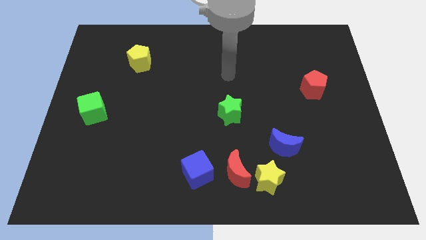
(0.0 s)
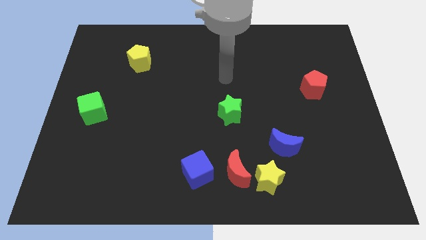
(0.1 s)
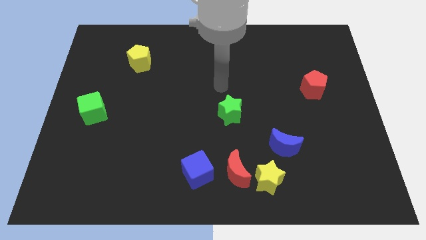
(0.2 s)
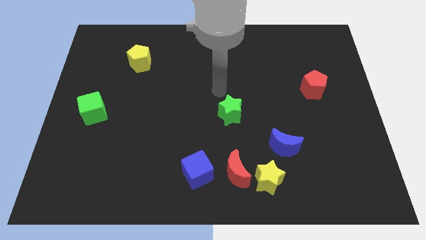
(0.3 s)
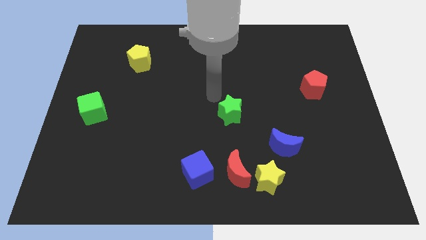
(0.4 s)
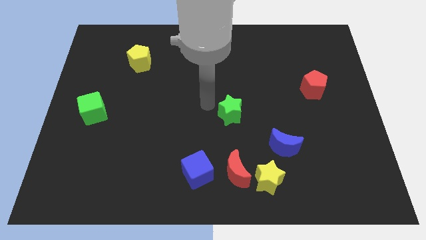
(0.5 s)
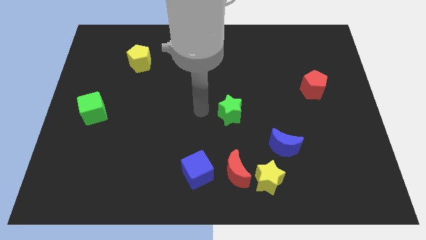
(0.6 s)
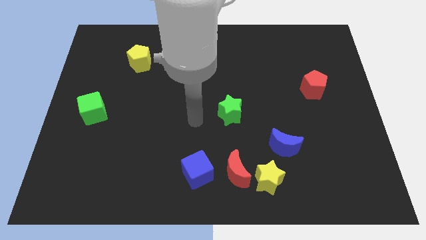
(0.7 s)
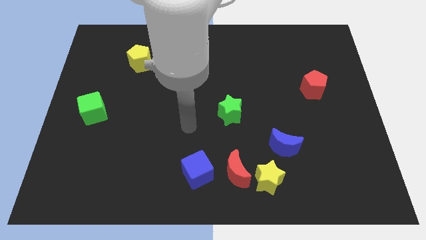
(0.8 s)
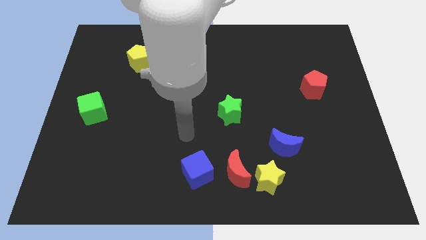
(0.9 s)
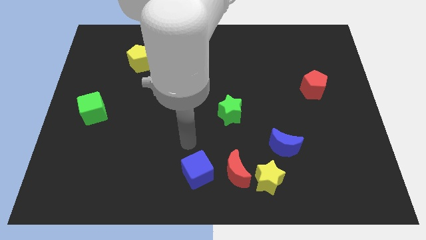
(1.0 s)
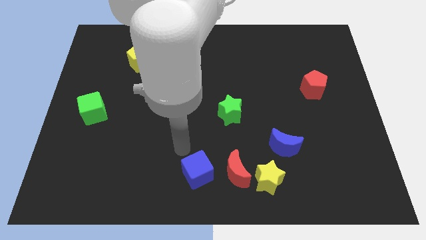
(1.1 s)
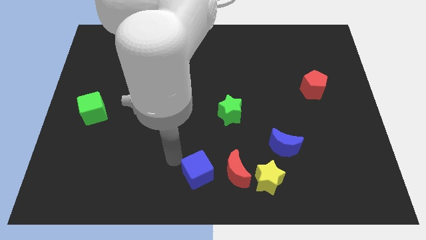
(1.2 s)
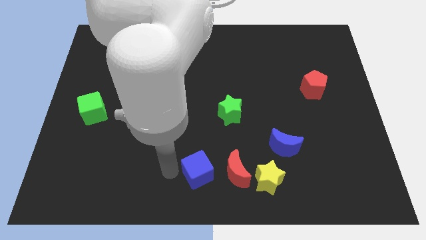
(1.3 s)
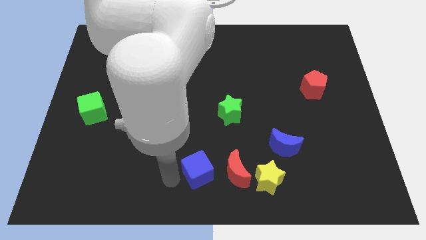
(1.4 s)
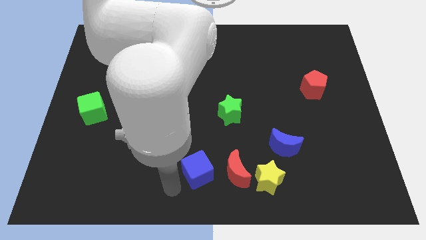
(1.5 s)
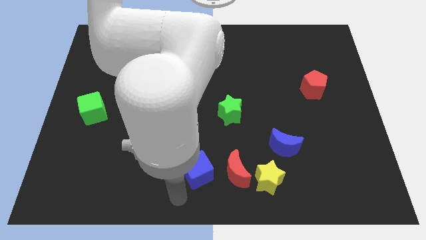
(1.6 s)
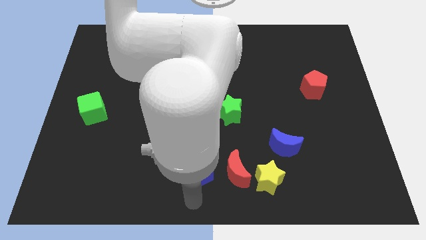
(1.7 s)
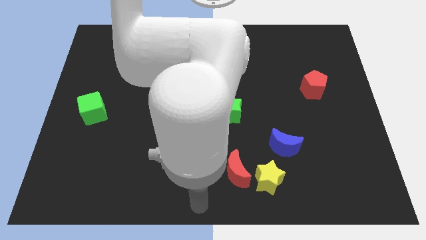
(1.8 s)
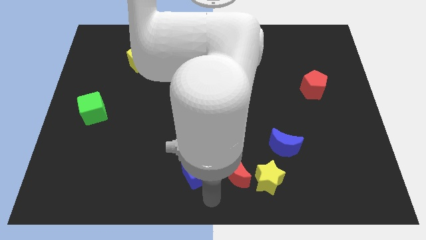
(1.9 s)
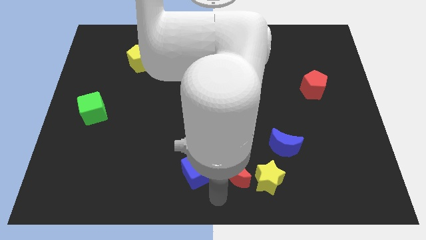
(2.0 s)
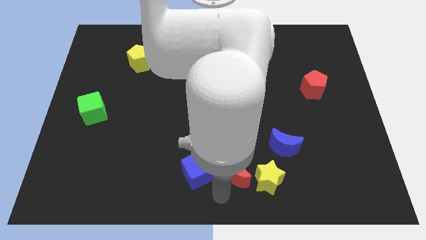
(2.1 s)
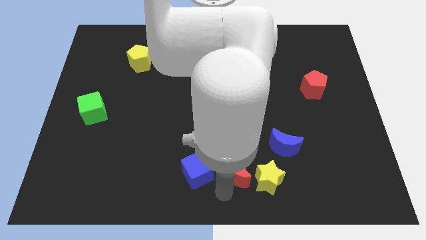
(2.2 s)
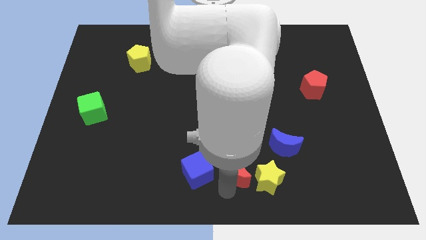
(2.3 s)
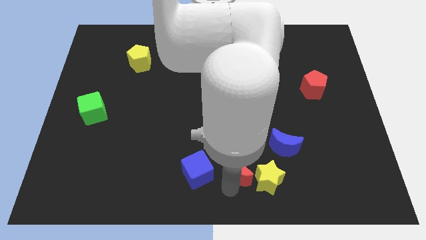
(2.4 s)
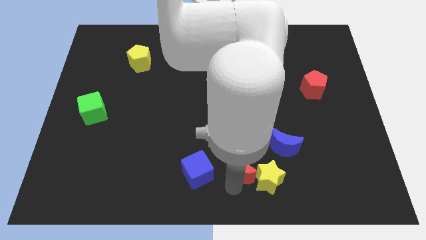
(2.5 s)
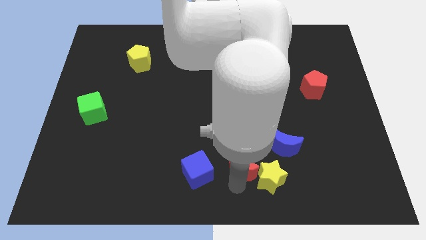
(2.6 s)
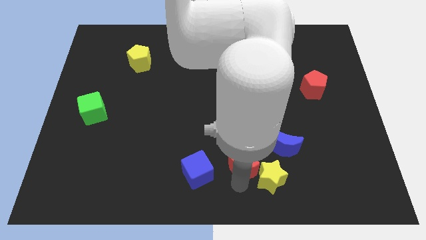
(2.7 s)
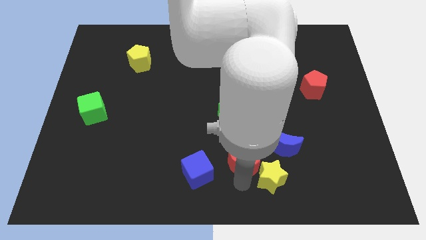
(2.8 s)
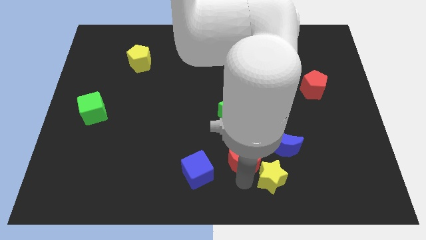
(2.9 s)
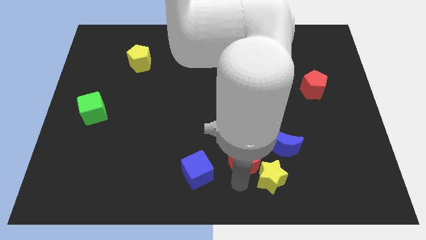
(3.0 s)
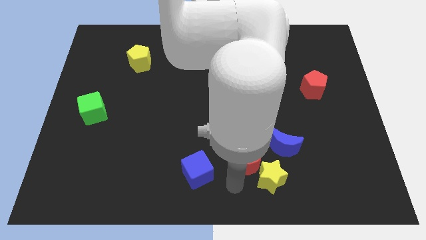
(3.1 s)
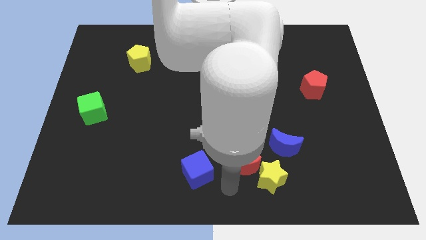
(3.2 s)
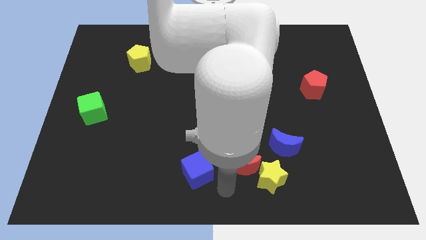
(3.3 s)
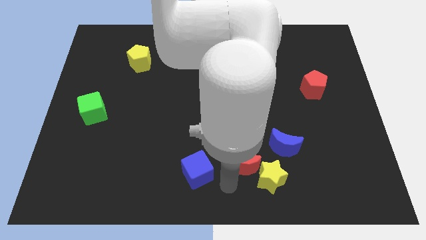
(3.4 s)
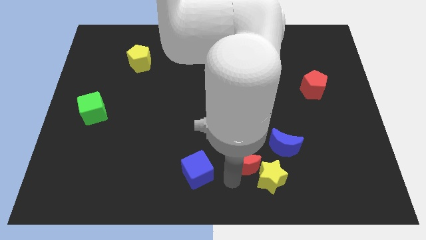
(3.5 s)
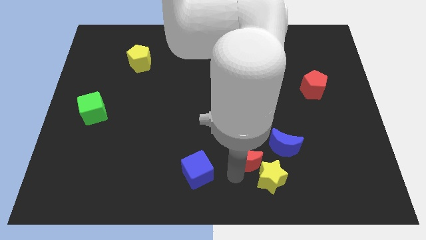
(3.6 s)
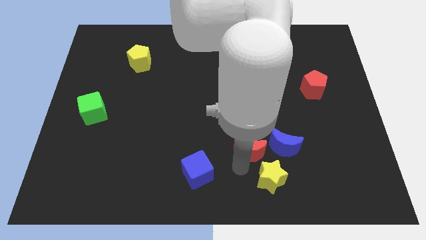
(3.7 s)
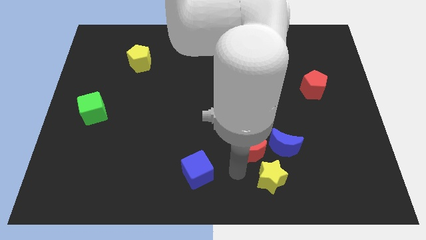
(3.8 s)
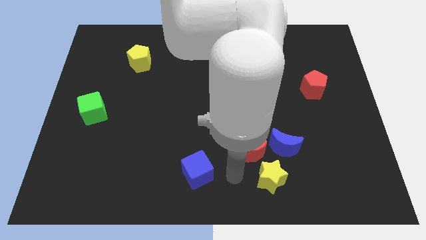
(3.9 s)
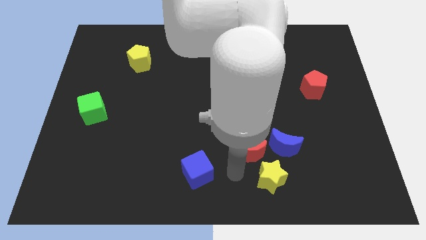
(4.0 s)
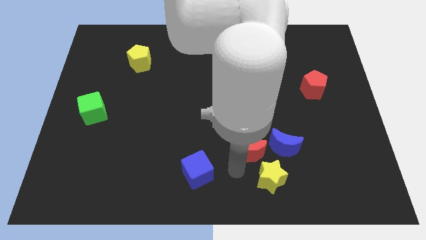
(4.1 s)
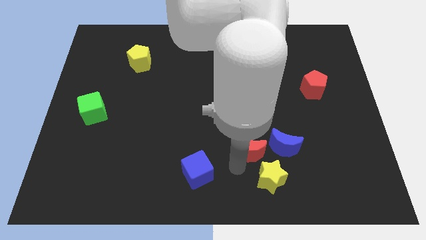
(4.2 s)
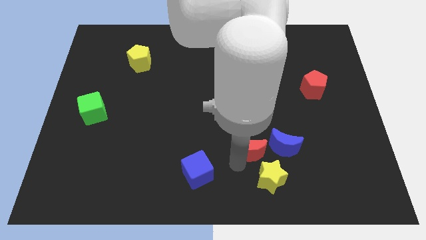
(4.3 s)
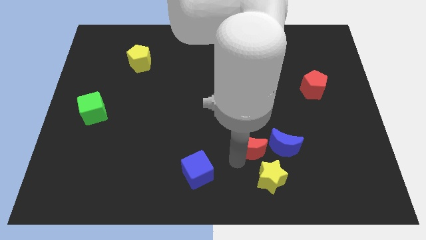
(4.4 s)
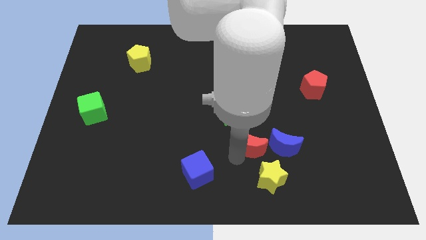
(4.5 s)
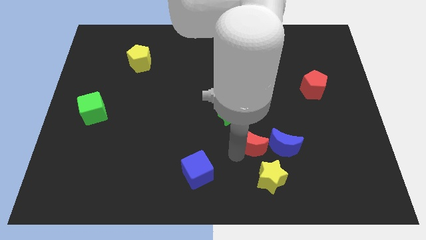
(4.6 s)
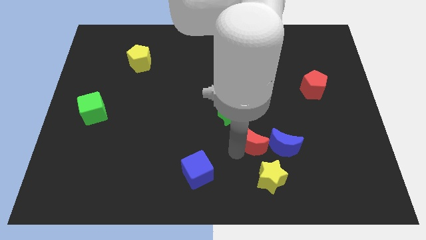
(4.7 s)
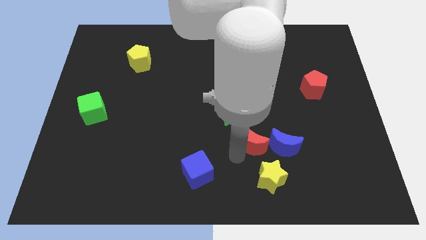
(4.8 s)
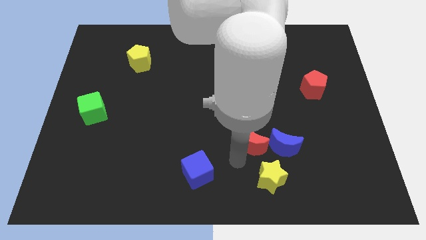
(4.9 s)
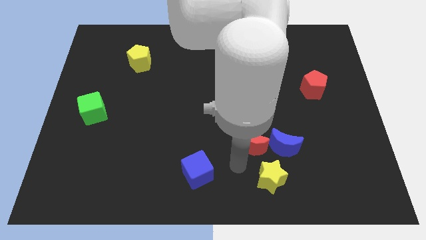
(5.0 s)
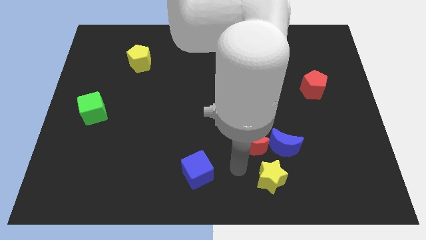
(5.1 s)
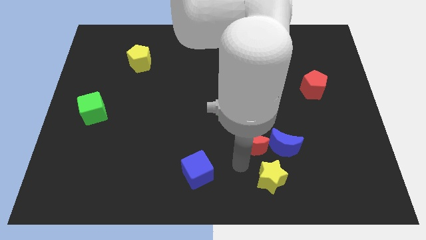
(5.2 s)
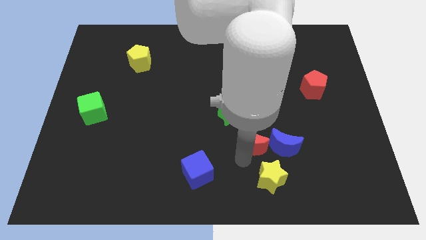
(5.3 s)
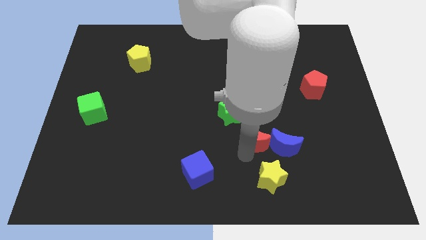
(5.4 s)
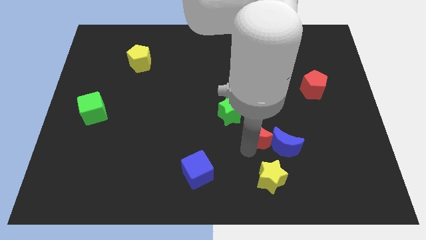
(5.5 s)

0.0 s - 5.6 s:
pull the red moon apart from the yellow star and blue cube

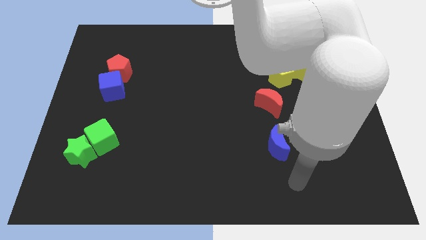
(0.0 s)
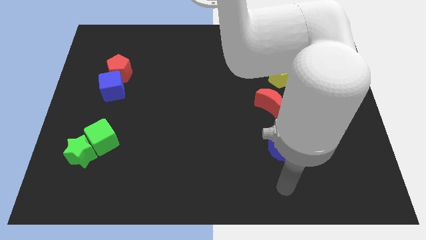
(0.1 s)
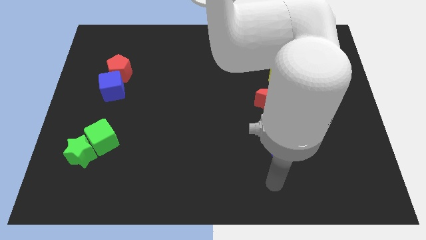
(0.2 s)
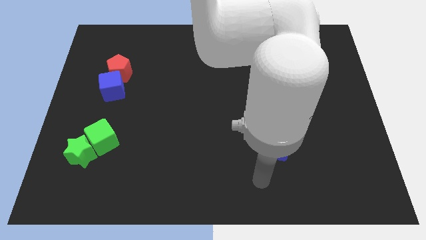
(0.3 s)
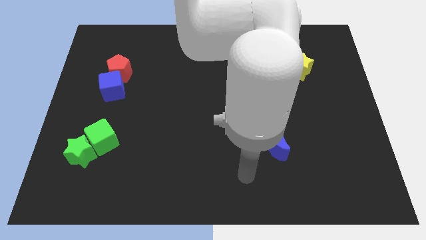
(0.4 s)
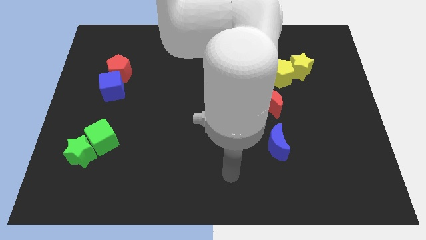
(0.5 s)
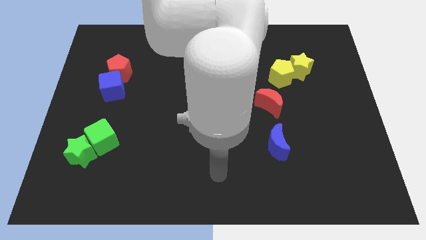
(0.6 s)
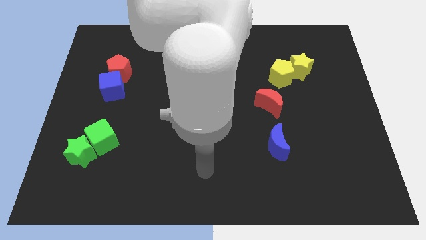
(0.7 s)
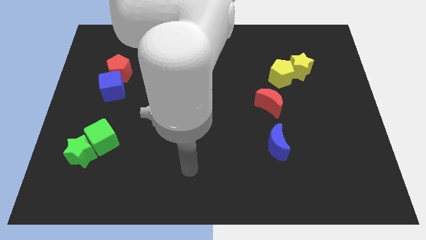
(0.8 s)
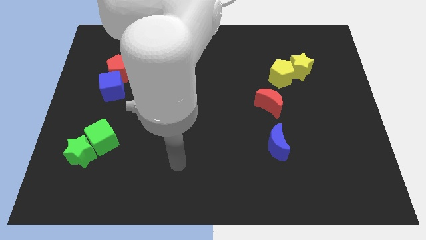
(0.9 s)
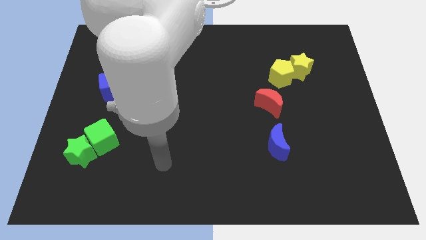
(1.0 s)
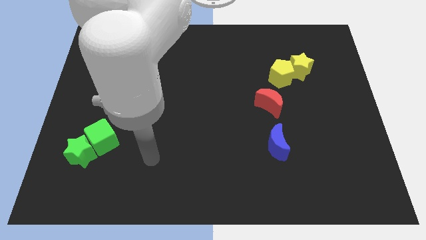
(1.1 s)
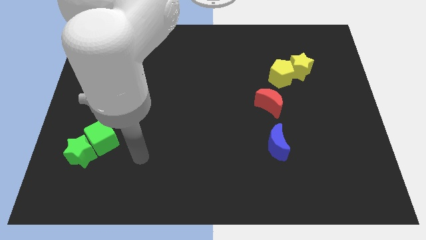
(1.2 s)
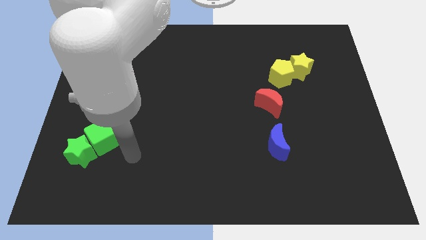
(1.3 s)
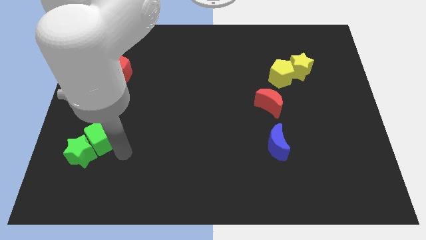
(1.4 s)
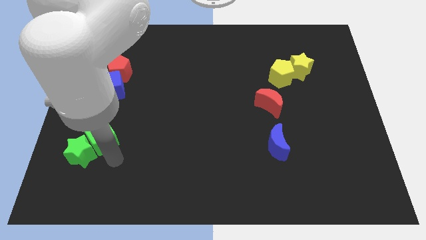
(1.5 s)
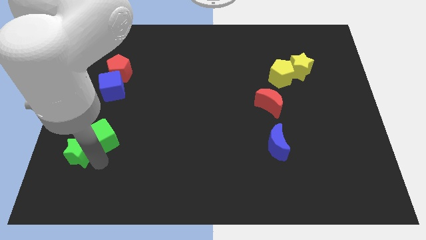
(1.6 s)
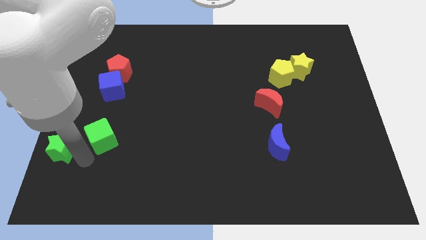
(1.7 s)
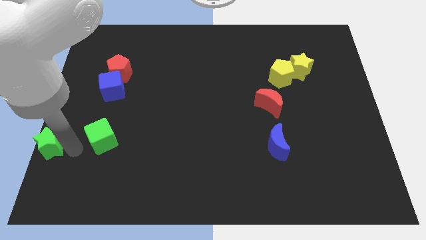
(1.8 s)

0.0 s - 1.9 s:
separate the green cube from the green star

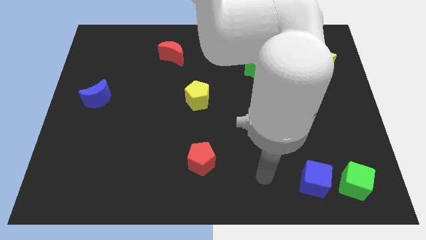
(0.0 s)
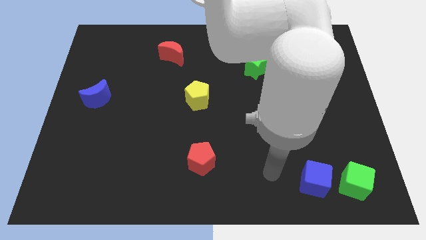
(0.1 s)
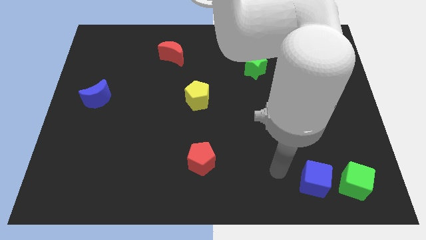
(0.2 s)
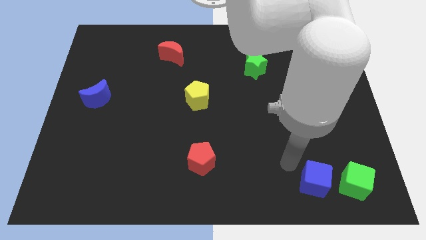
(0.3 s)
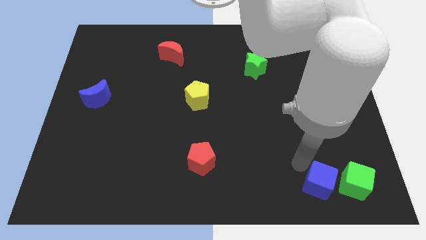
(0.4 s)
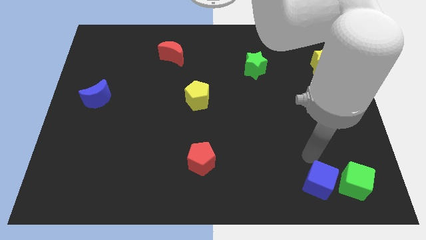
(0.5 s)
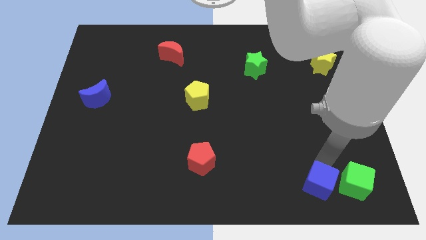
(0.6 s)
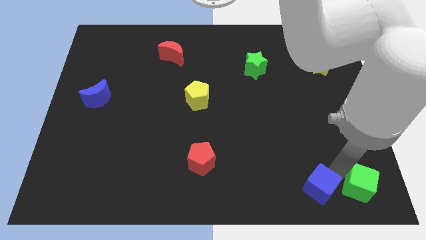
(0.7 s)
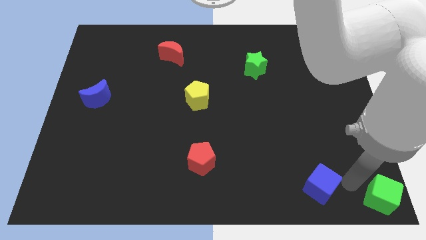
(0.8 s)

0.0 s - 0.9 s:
move the blue cube away from the green cube

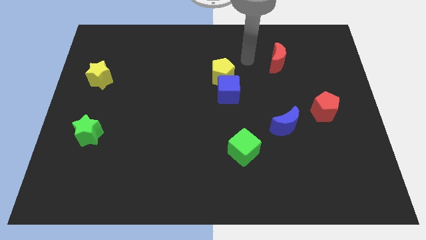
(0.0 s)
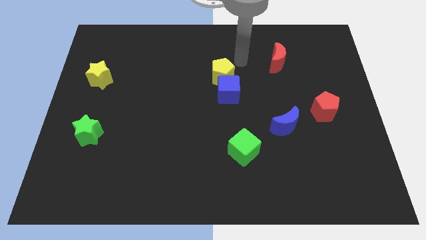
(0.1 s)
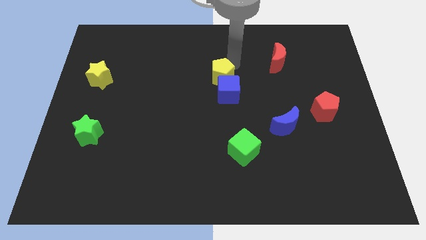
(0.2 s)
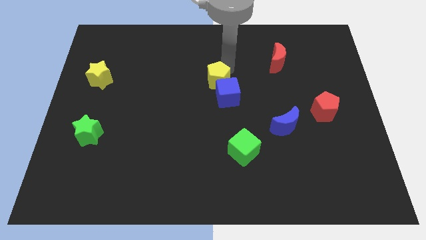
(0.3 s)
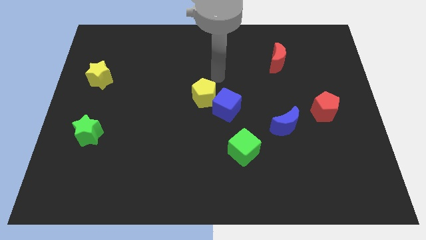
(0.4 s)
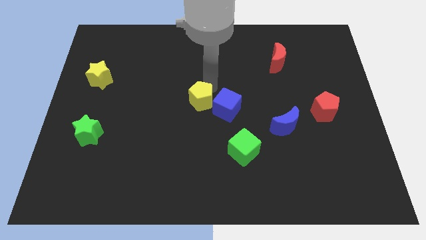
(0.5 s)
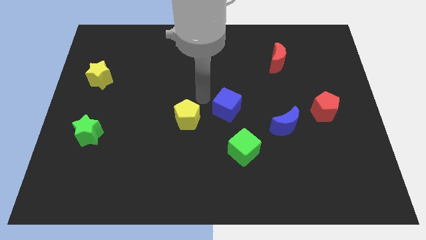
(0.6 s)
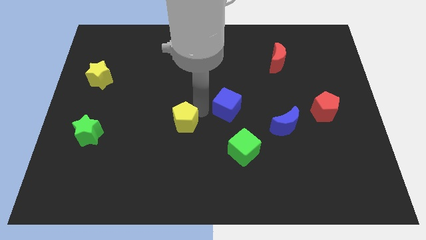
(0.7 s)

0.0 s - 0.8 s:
separate the blue cube from the yellow pentagon

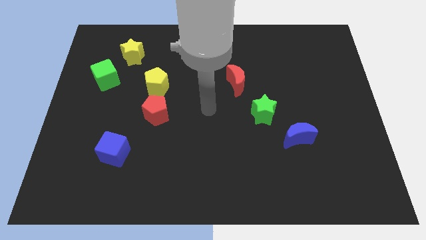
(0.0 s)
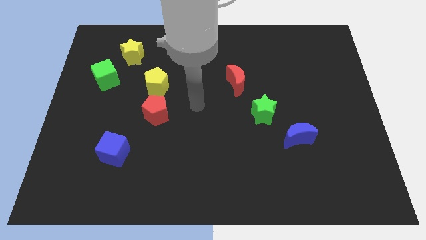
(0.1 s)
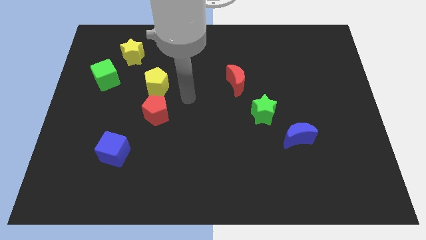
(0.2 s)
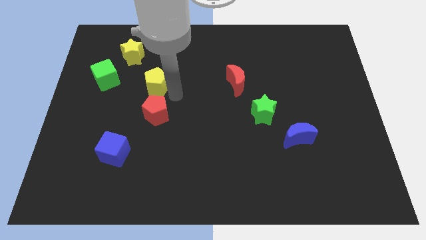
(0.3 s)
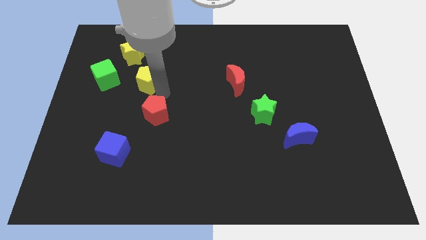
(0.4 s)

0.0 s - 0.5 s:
move the red pentagon away from the yellow pentagon
